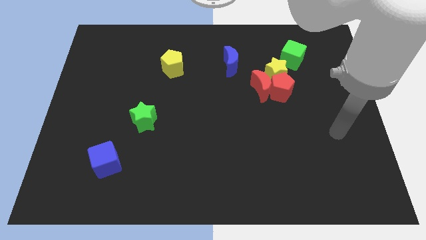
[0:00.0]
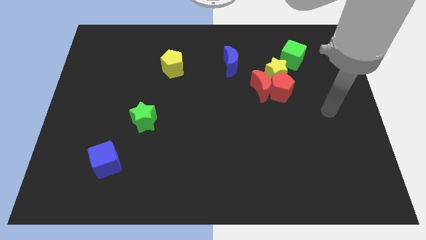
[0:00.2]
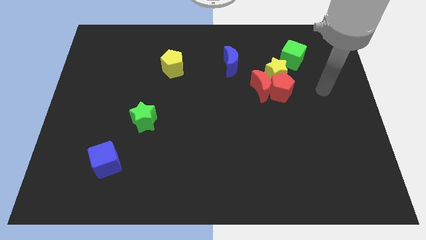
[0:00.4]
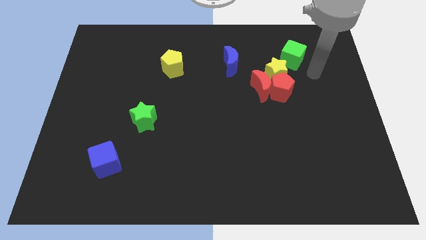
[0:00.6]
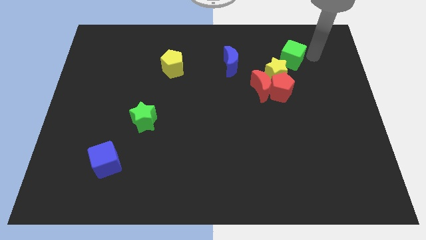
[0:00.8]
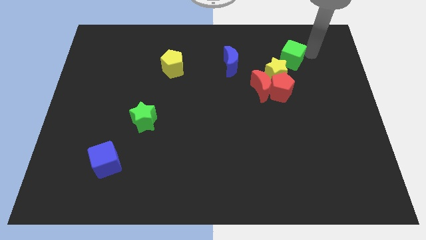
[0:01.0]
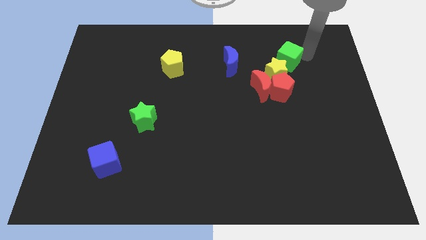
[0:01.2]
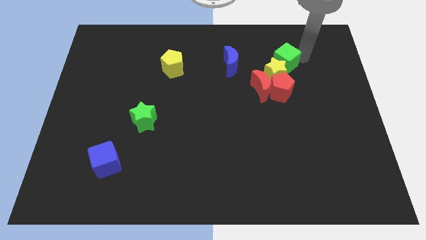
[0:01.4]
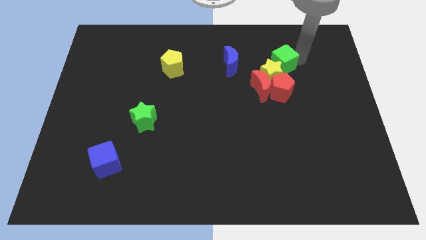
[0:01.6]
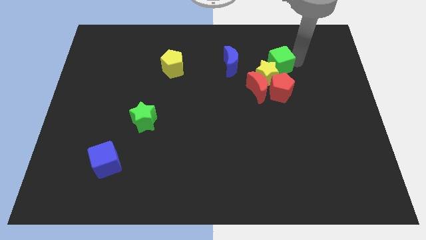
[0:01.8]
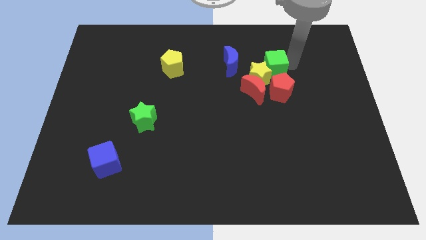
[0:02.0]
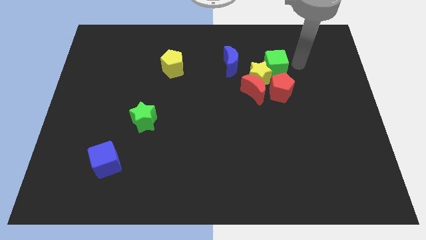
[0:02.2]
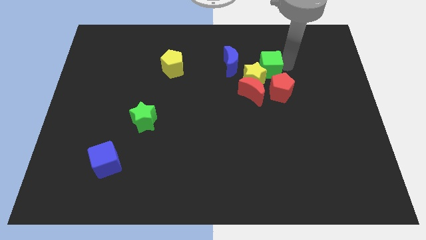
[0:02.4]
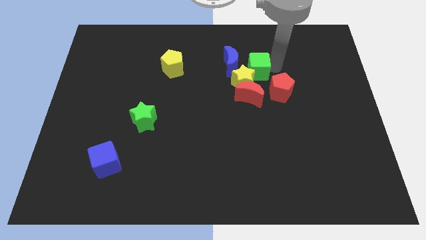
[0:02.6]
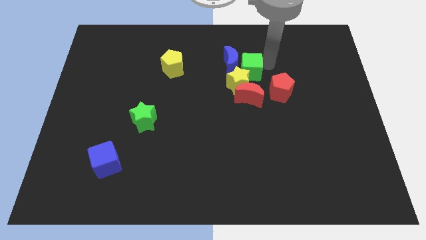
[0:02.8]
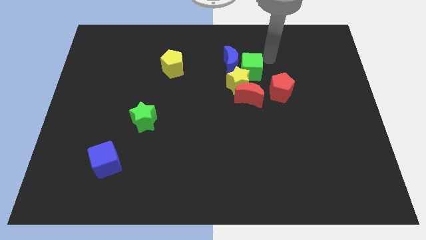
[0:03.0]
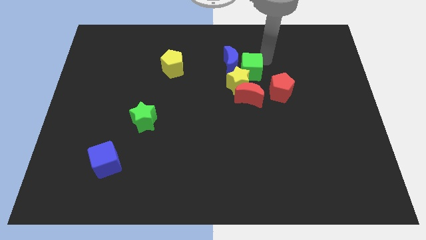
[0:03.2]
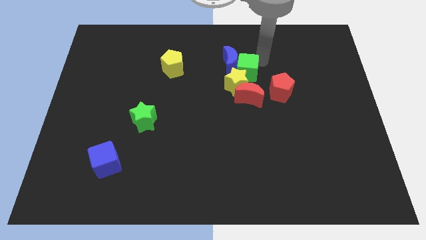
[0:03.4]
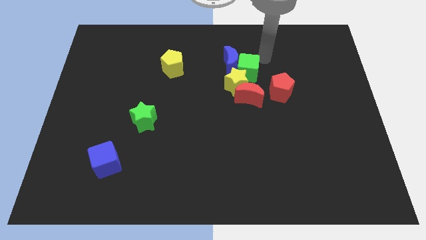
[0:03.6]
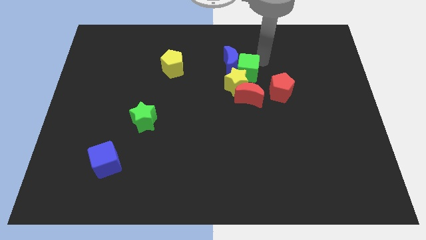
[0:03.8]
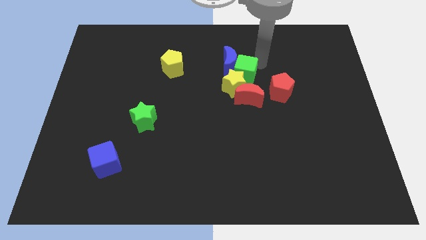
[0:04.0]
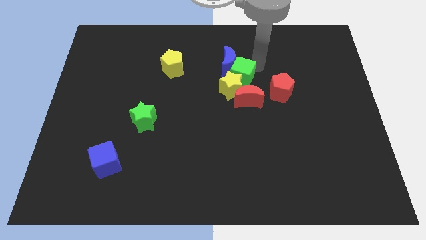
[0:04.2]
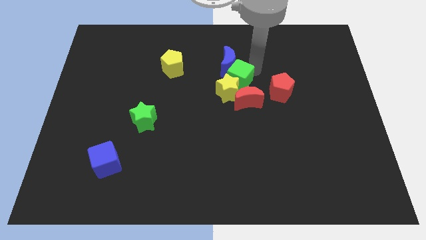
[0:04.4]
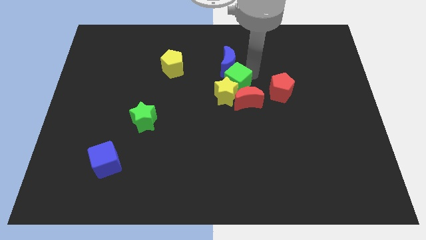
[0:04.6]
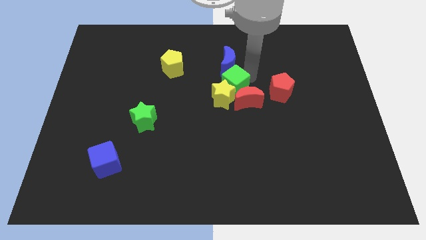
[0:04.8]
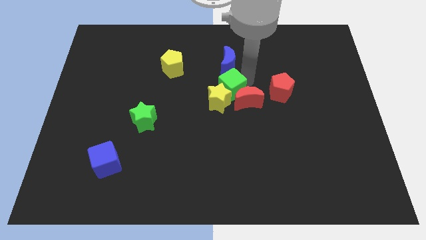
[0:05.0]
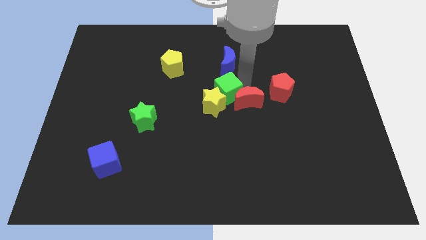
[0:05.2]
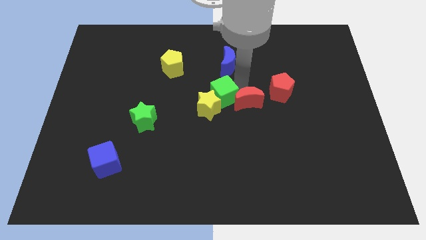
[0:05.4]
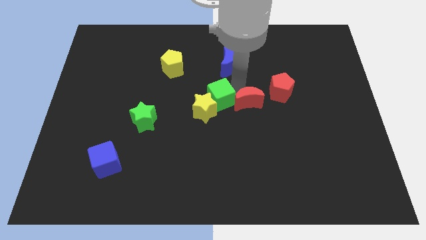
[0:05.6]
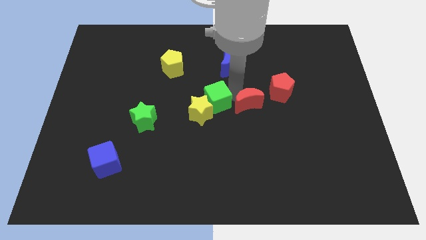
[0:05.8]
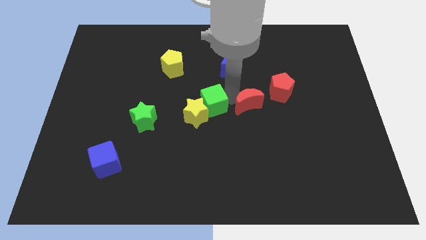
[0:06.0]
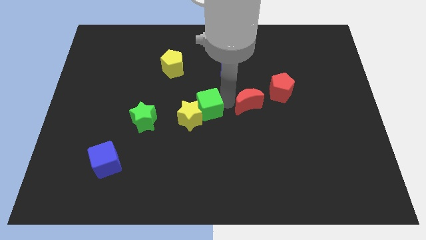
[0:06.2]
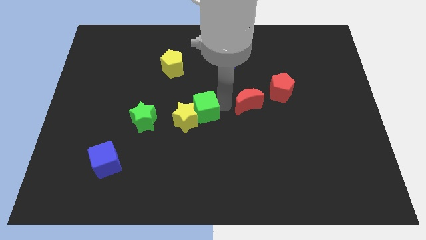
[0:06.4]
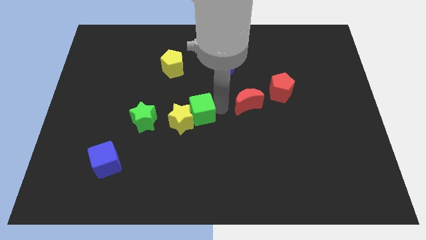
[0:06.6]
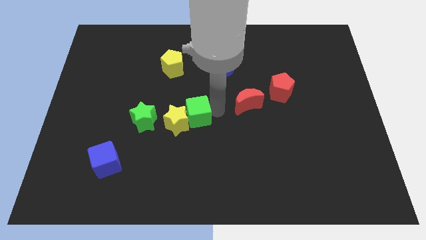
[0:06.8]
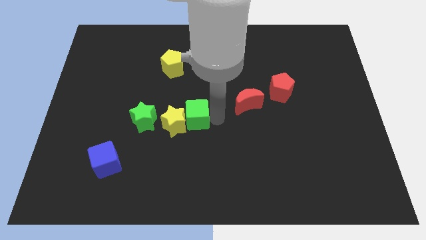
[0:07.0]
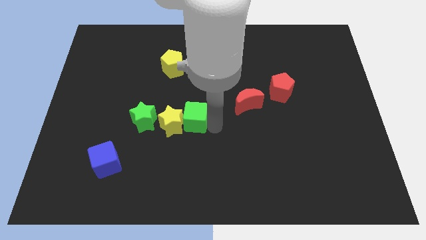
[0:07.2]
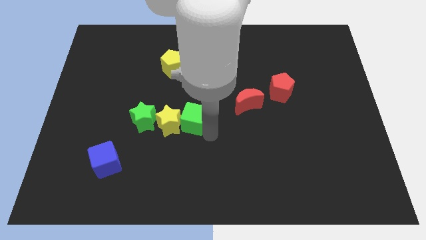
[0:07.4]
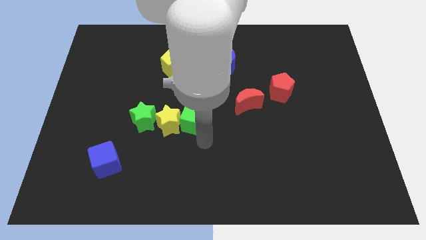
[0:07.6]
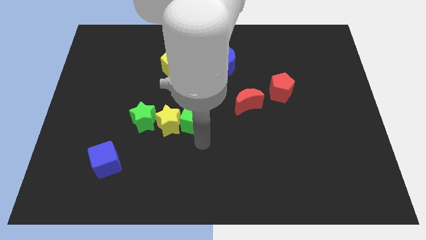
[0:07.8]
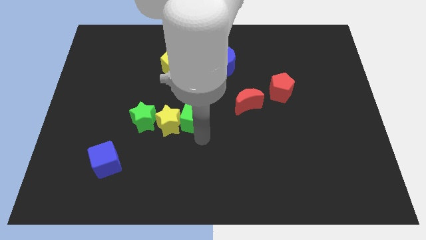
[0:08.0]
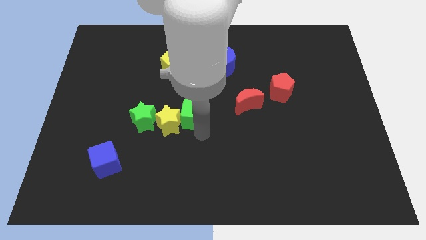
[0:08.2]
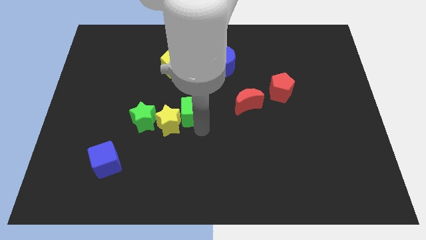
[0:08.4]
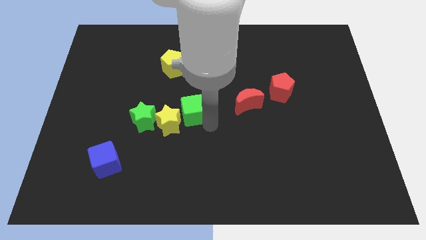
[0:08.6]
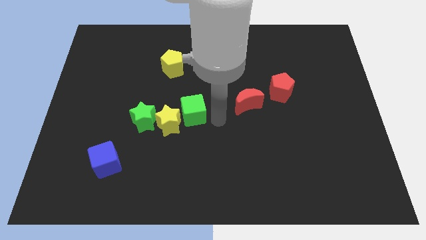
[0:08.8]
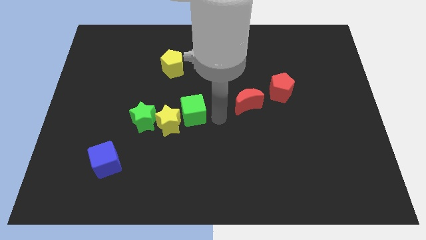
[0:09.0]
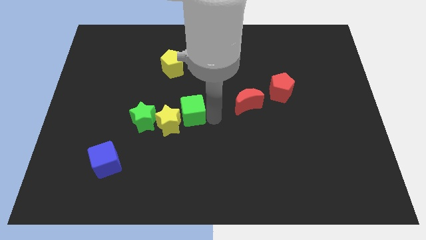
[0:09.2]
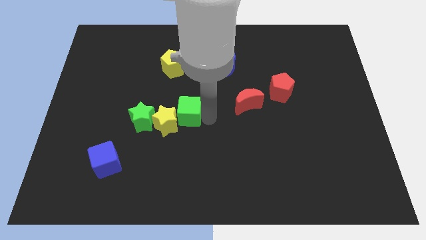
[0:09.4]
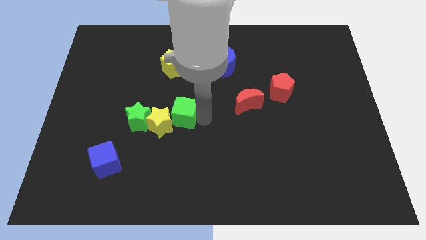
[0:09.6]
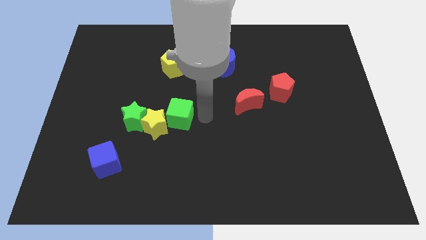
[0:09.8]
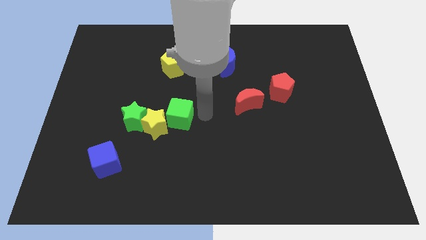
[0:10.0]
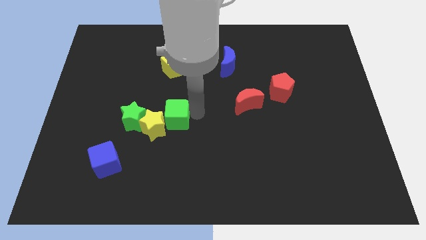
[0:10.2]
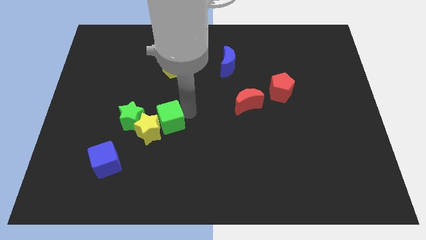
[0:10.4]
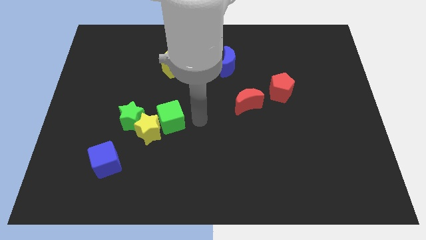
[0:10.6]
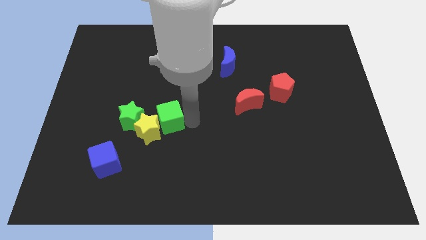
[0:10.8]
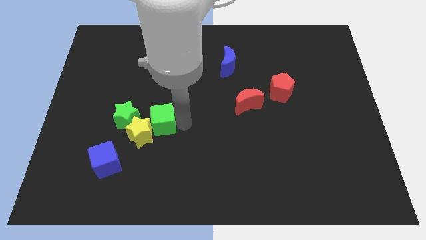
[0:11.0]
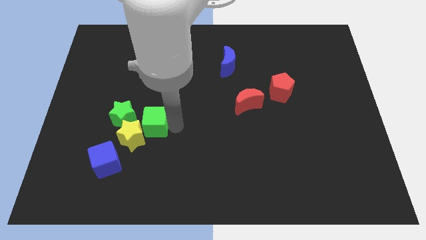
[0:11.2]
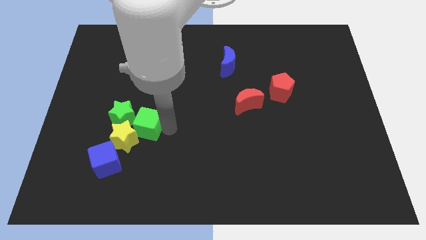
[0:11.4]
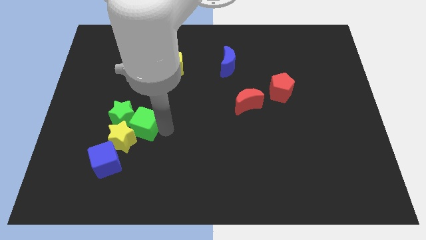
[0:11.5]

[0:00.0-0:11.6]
move the green cube close to the green star

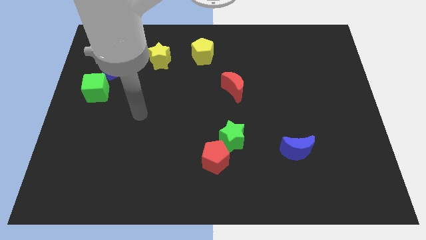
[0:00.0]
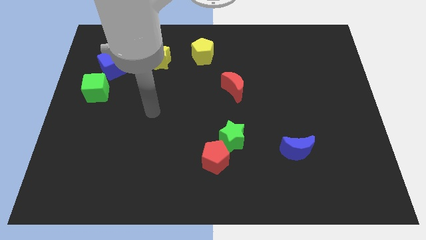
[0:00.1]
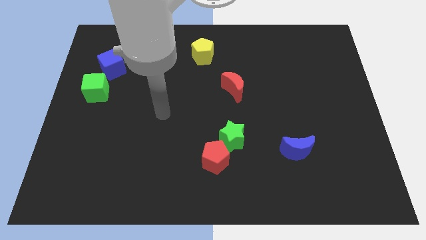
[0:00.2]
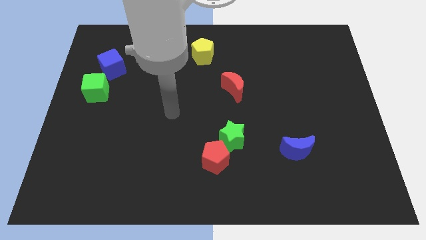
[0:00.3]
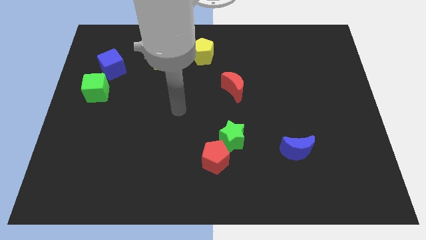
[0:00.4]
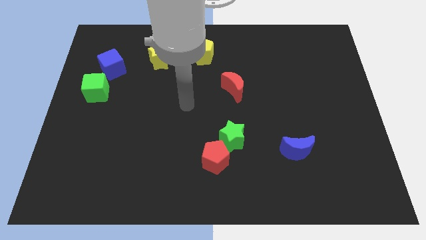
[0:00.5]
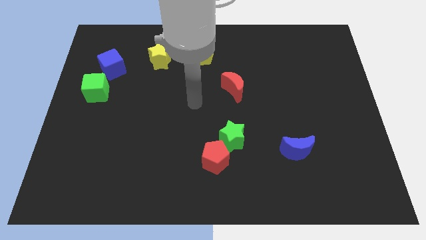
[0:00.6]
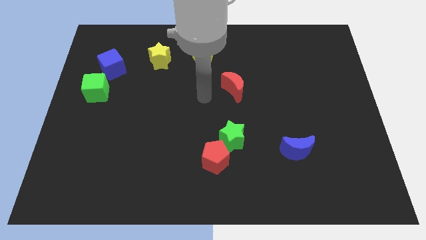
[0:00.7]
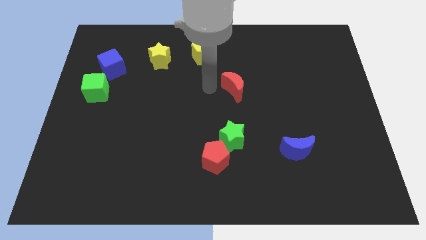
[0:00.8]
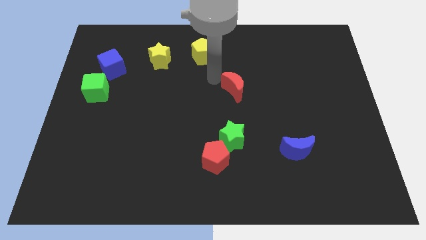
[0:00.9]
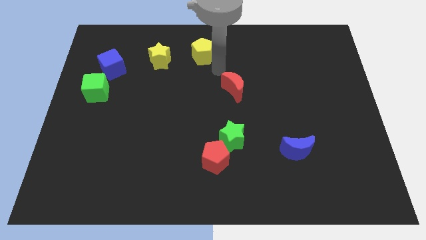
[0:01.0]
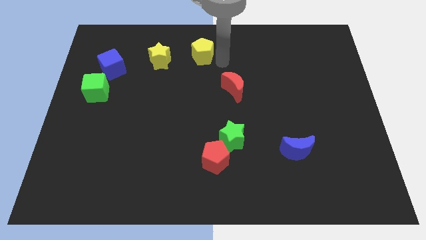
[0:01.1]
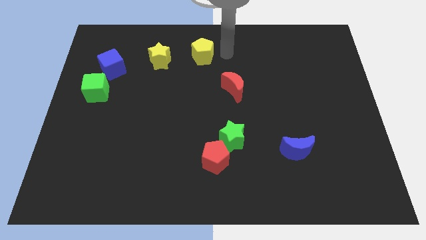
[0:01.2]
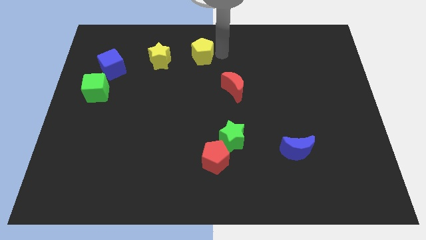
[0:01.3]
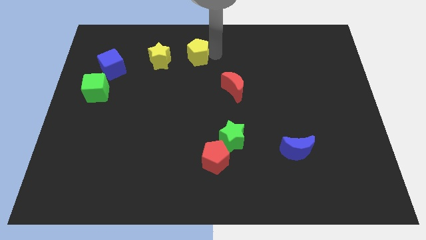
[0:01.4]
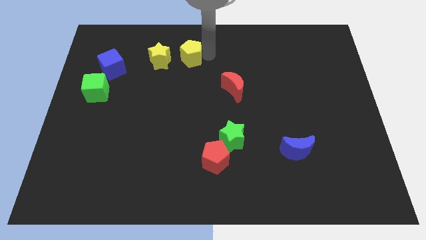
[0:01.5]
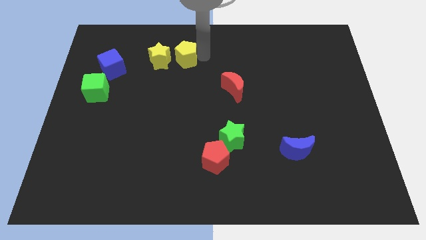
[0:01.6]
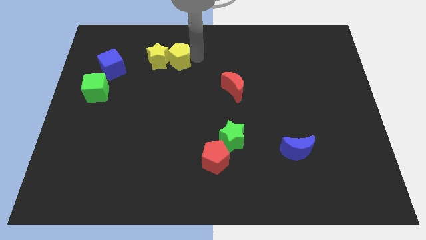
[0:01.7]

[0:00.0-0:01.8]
push the yellow pentagon close to the yellow star
